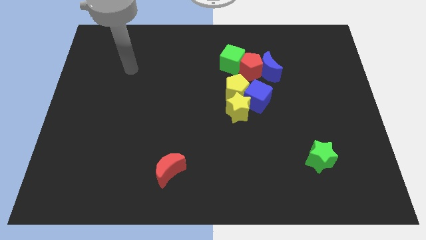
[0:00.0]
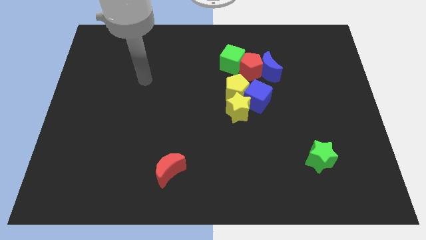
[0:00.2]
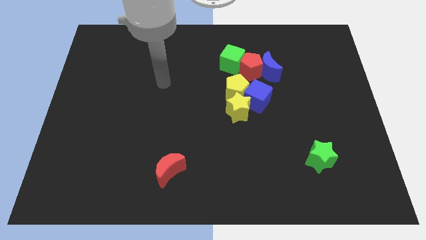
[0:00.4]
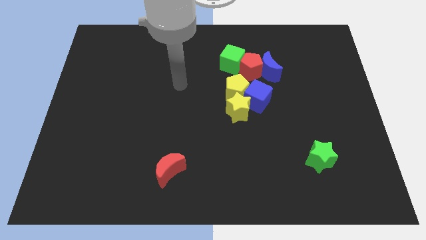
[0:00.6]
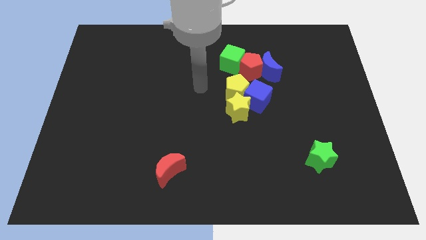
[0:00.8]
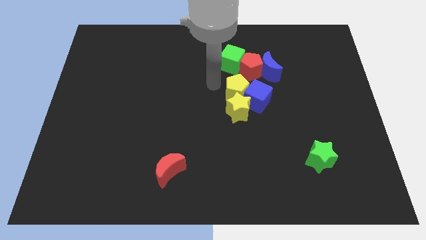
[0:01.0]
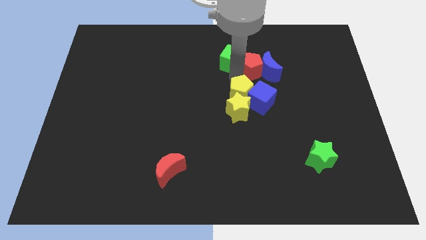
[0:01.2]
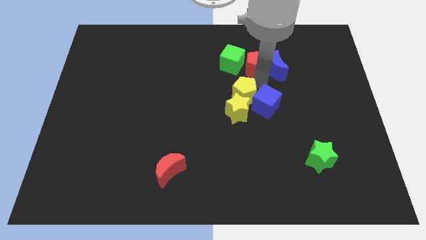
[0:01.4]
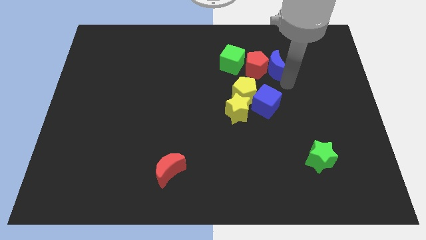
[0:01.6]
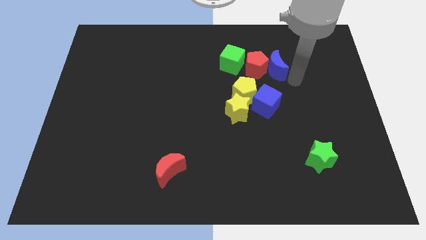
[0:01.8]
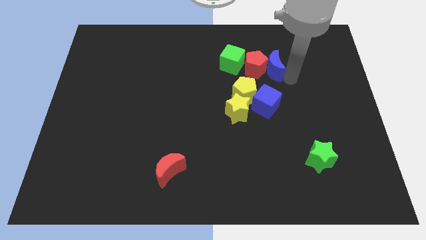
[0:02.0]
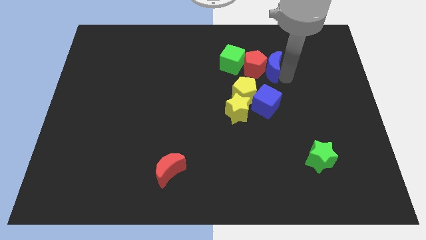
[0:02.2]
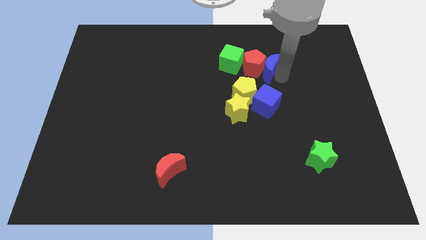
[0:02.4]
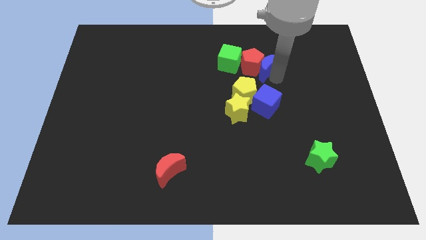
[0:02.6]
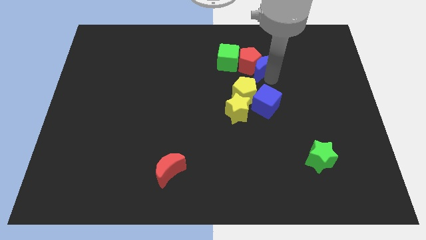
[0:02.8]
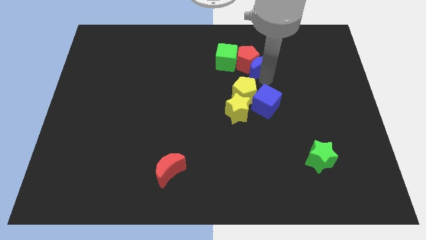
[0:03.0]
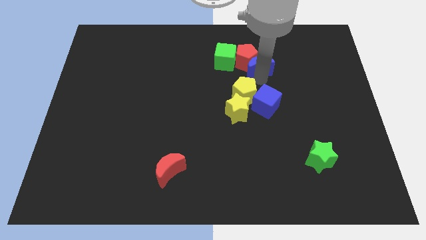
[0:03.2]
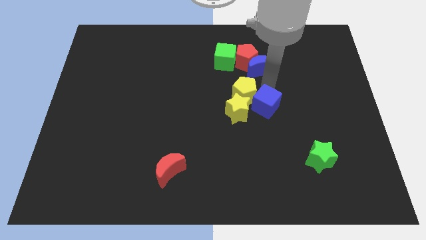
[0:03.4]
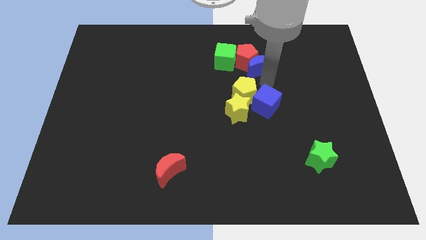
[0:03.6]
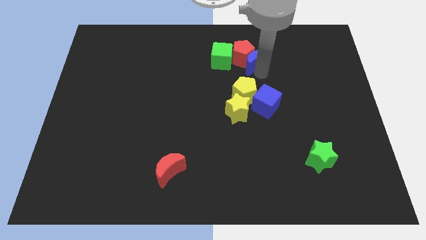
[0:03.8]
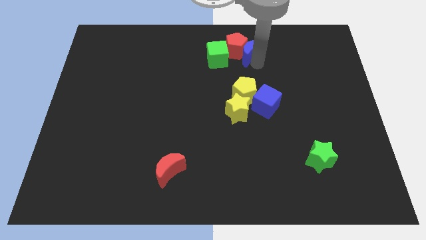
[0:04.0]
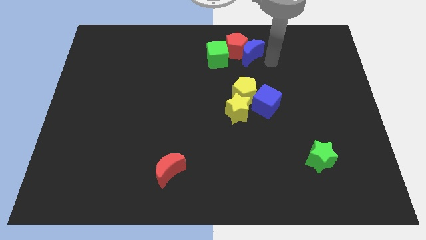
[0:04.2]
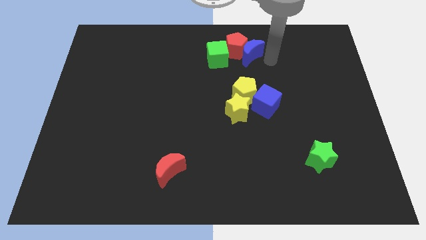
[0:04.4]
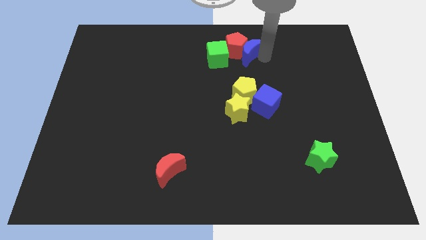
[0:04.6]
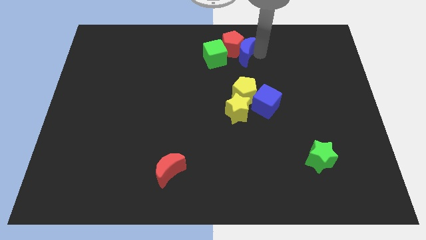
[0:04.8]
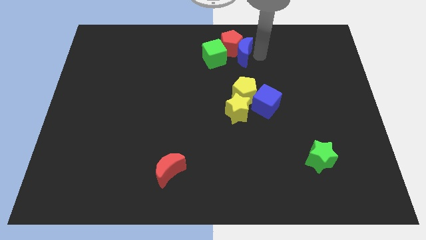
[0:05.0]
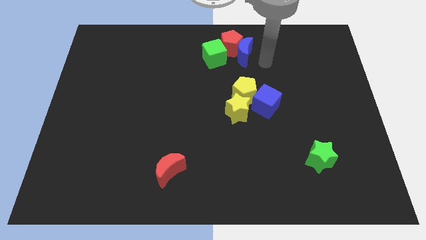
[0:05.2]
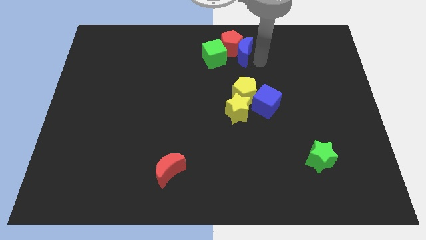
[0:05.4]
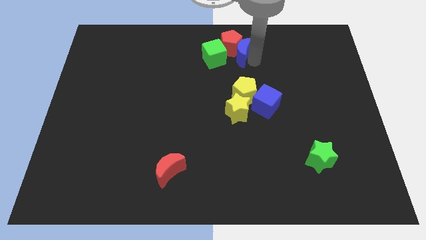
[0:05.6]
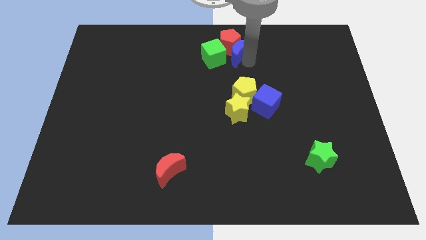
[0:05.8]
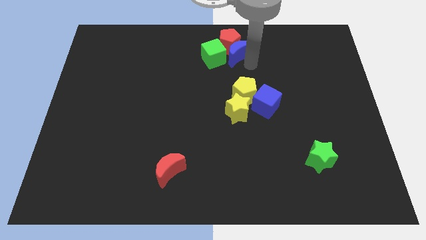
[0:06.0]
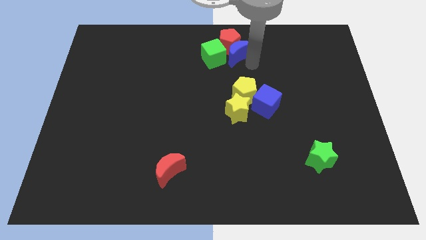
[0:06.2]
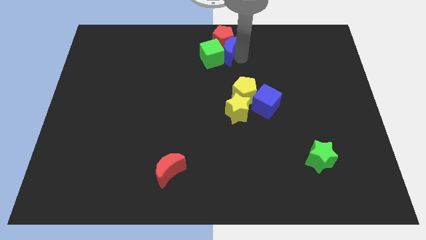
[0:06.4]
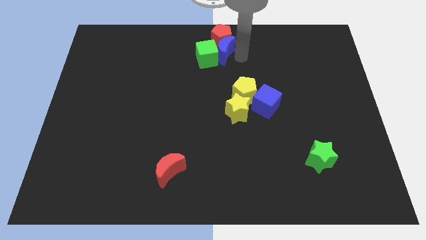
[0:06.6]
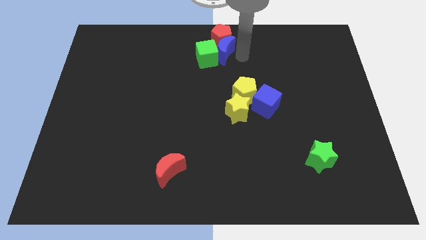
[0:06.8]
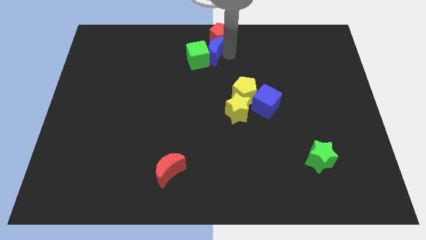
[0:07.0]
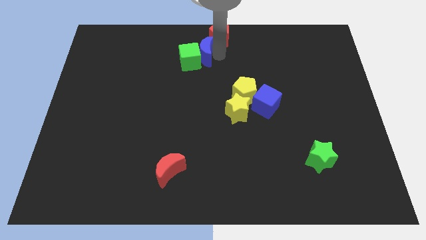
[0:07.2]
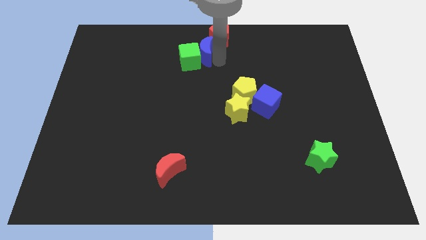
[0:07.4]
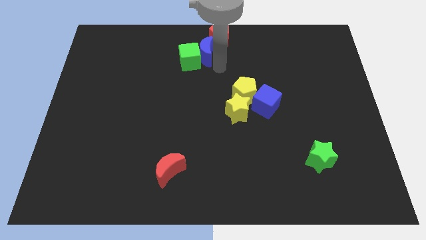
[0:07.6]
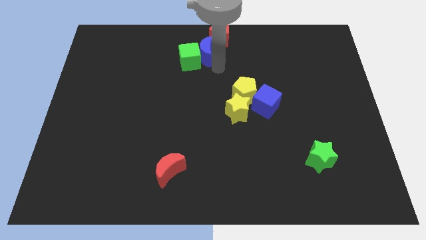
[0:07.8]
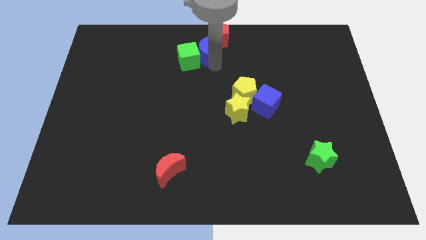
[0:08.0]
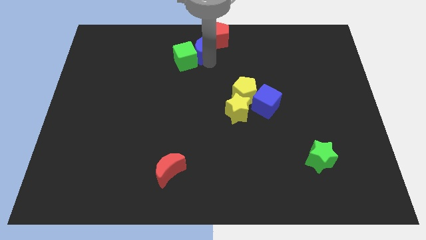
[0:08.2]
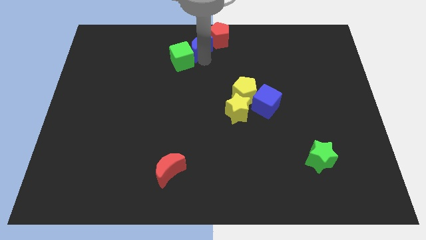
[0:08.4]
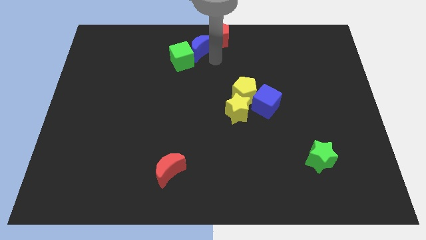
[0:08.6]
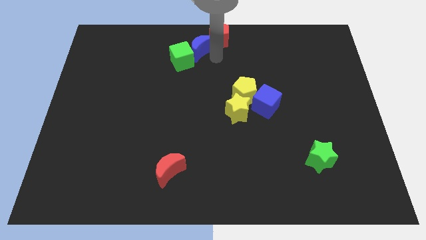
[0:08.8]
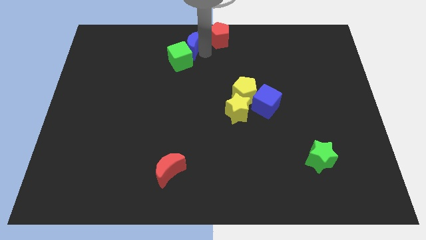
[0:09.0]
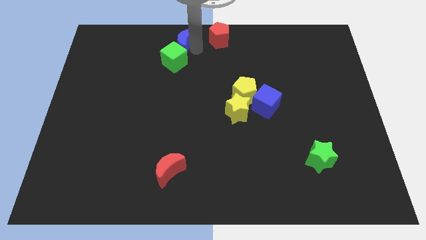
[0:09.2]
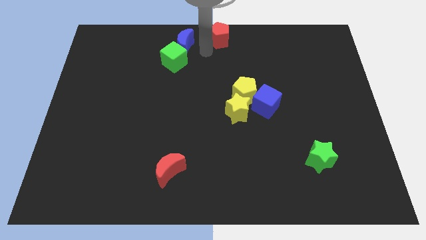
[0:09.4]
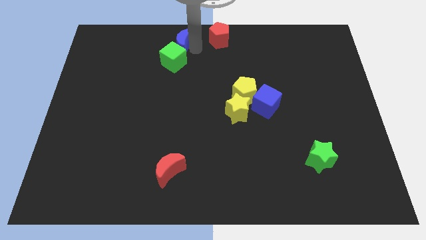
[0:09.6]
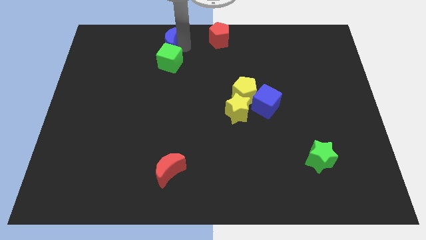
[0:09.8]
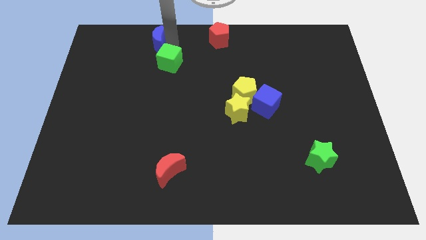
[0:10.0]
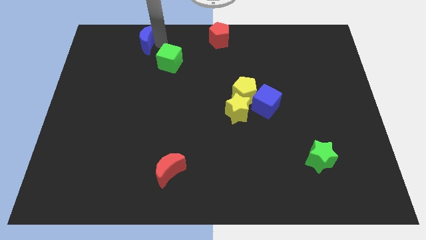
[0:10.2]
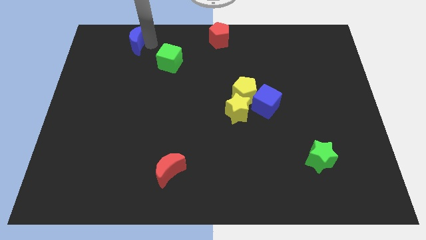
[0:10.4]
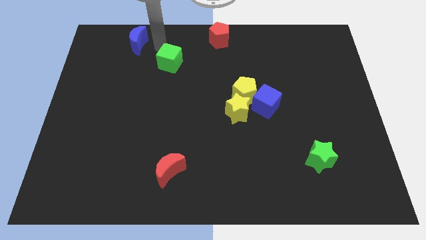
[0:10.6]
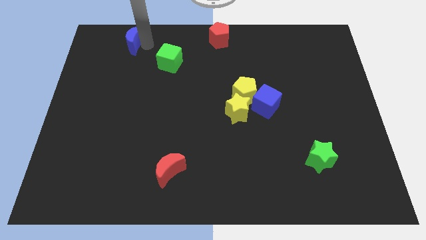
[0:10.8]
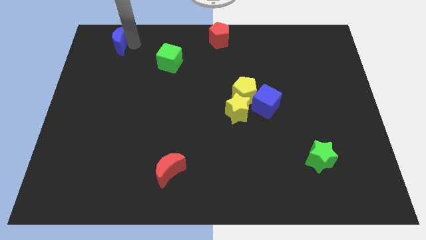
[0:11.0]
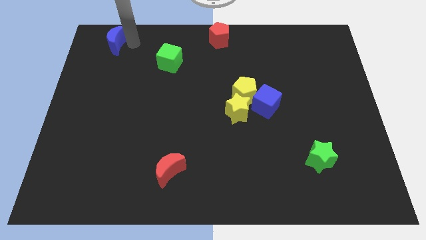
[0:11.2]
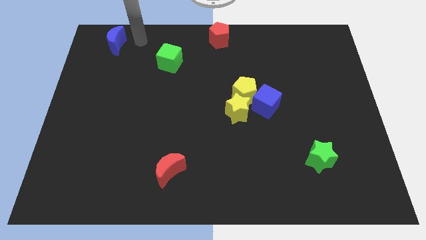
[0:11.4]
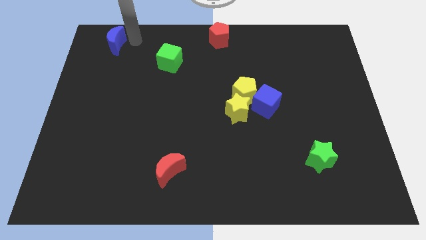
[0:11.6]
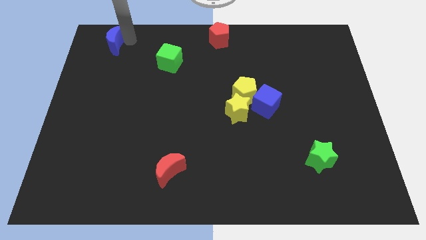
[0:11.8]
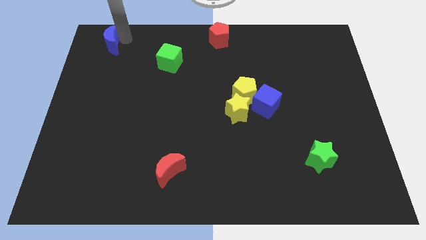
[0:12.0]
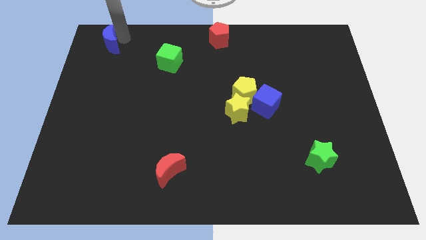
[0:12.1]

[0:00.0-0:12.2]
put the blue moon to the upper left corner
